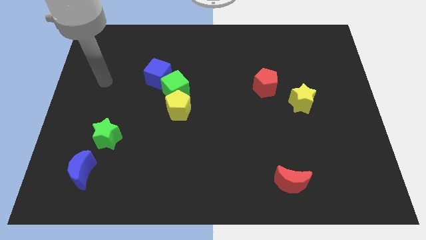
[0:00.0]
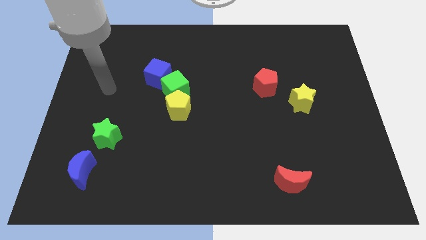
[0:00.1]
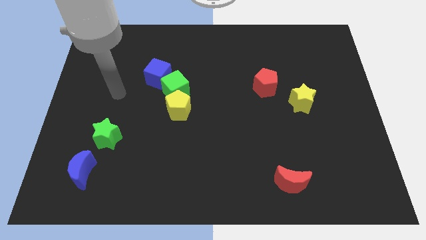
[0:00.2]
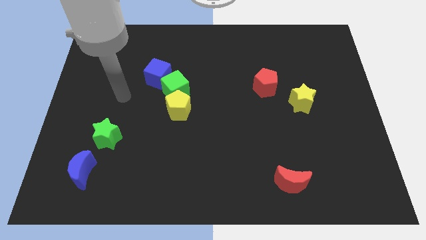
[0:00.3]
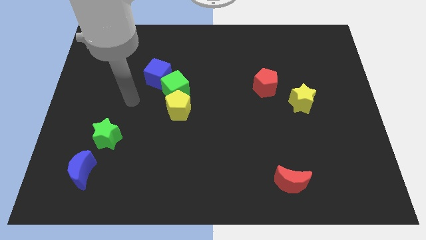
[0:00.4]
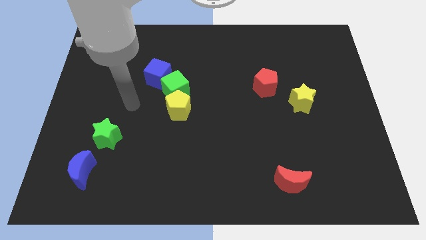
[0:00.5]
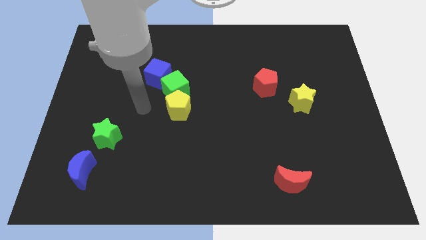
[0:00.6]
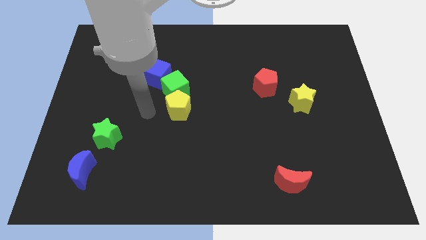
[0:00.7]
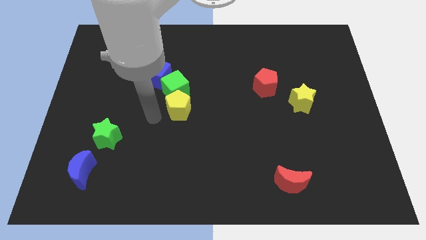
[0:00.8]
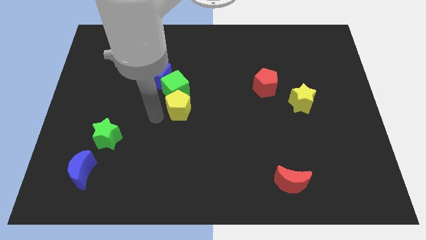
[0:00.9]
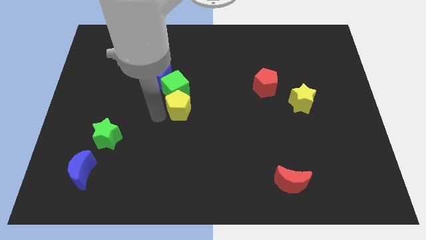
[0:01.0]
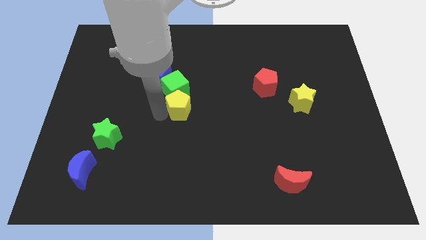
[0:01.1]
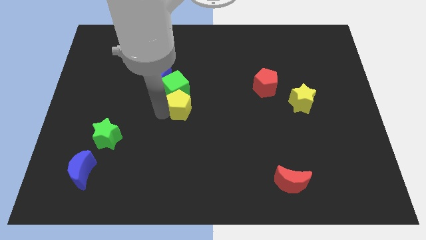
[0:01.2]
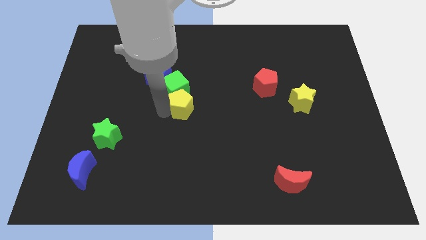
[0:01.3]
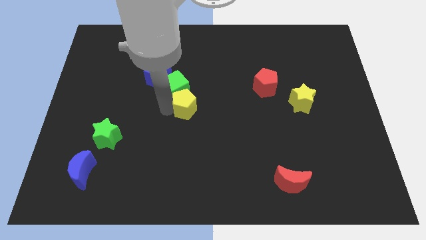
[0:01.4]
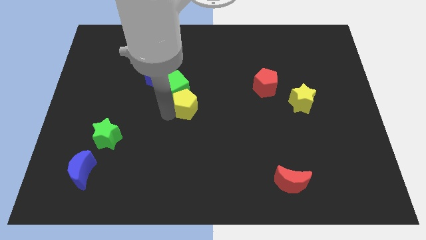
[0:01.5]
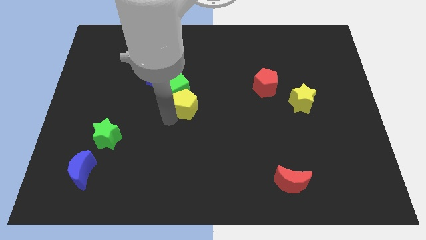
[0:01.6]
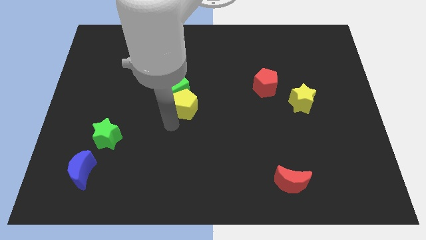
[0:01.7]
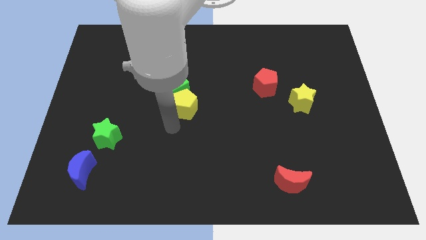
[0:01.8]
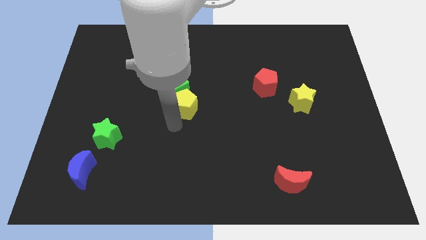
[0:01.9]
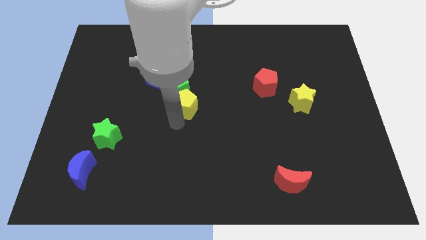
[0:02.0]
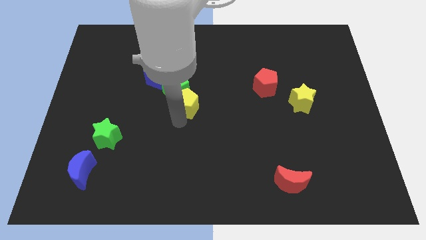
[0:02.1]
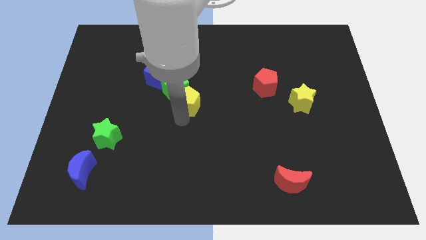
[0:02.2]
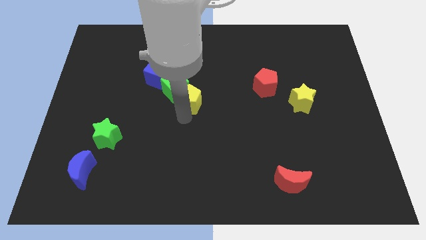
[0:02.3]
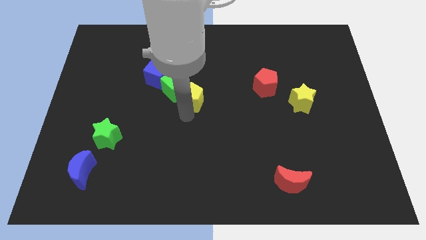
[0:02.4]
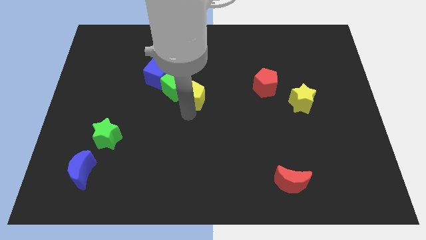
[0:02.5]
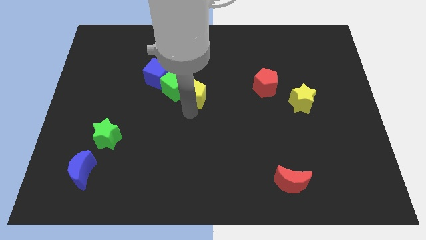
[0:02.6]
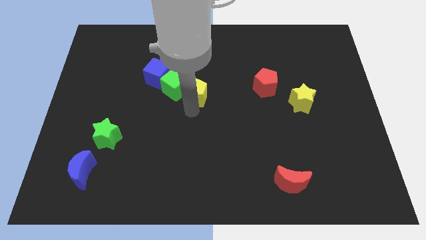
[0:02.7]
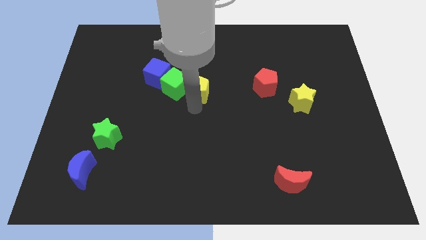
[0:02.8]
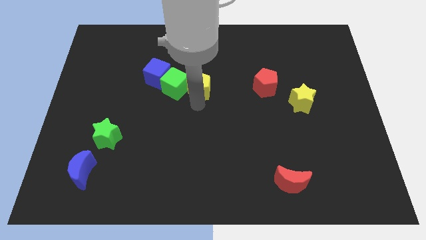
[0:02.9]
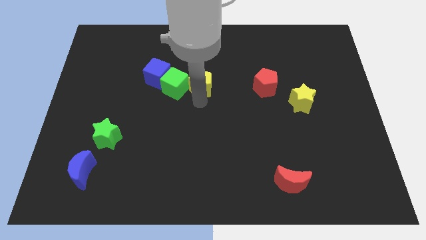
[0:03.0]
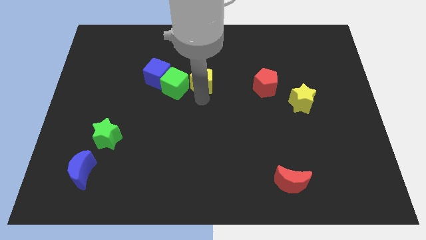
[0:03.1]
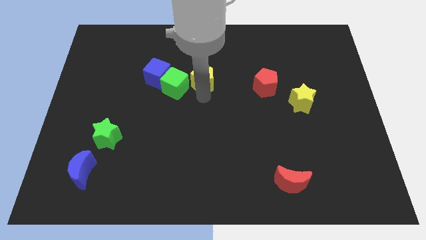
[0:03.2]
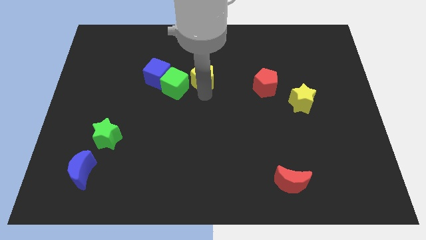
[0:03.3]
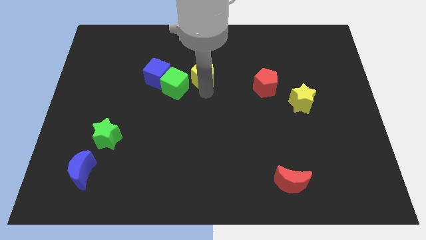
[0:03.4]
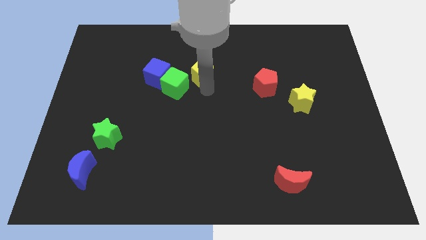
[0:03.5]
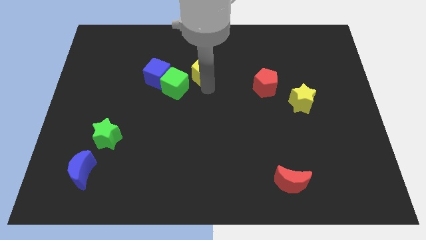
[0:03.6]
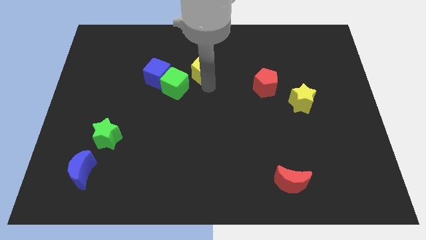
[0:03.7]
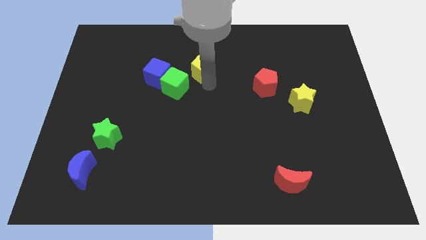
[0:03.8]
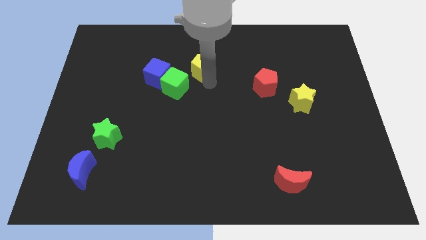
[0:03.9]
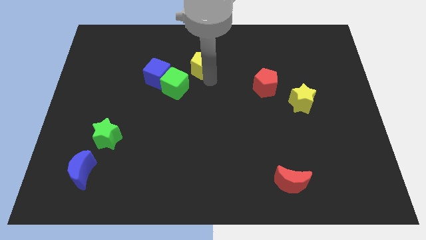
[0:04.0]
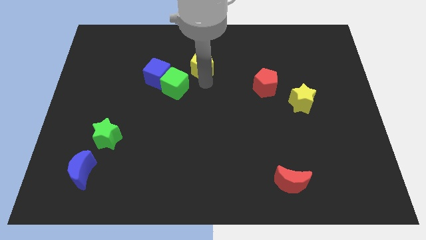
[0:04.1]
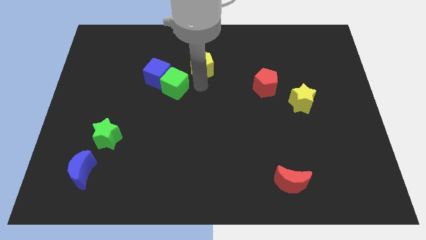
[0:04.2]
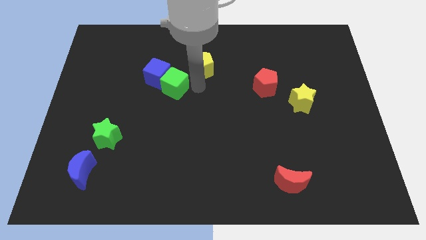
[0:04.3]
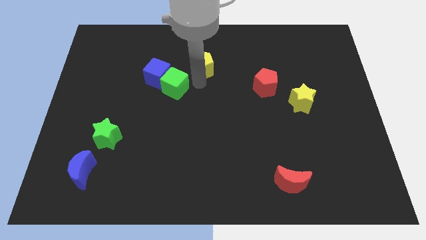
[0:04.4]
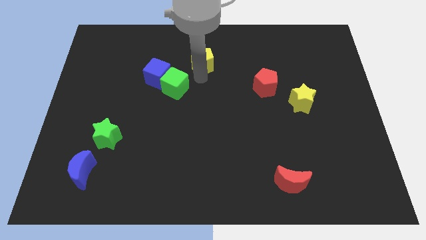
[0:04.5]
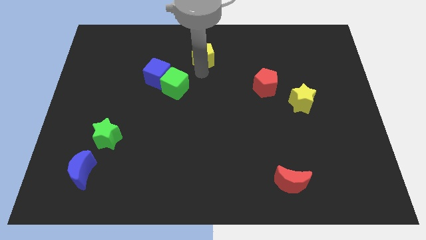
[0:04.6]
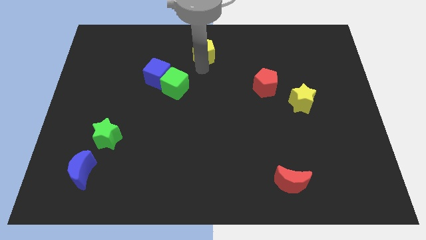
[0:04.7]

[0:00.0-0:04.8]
move the yellow pentagon to the top

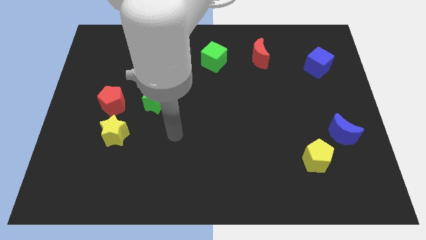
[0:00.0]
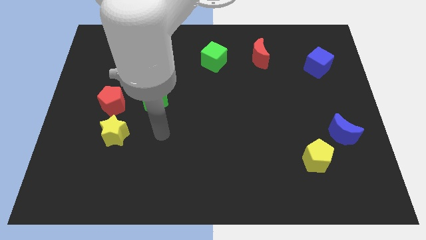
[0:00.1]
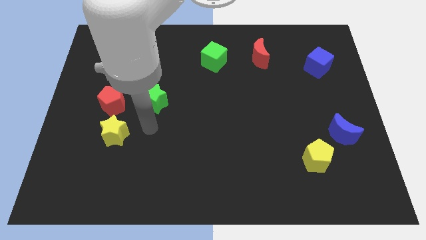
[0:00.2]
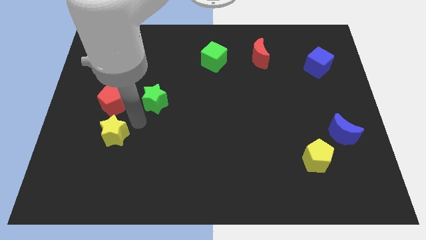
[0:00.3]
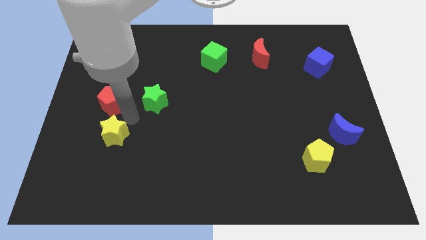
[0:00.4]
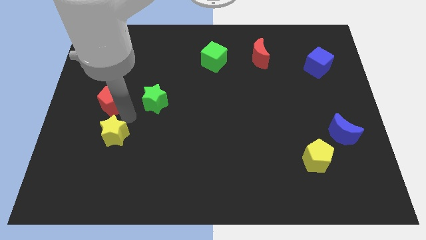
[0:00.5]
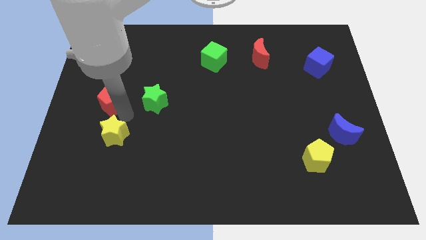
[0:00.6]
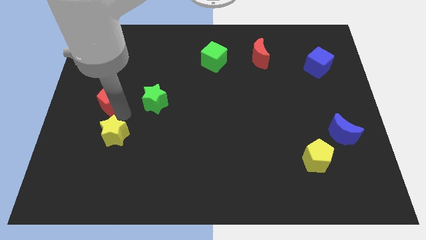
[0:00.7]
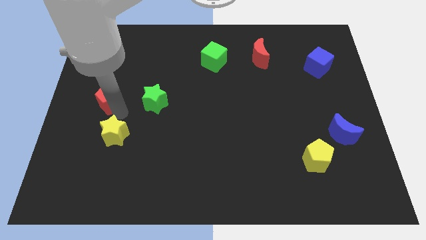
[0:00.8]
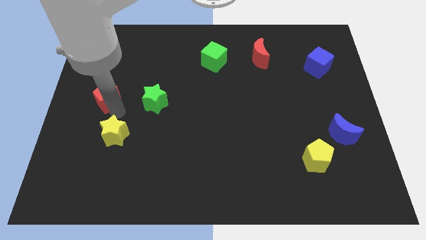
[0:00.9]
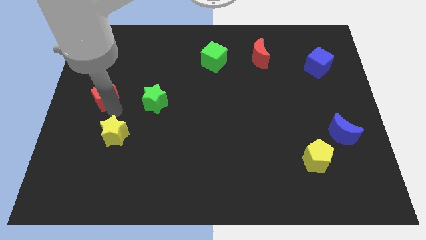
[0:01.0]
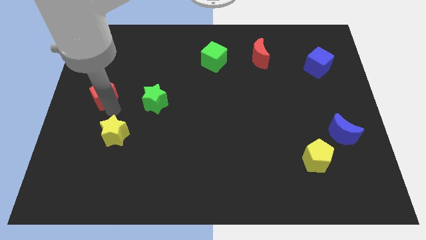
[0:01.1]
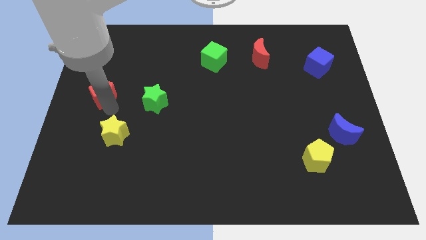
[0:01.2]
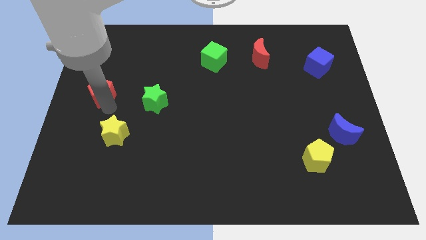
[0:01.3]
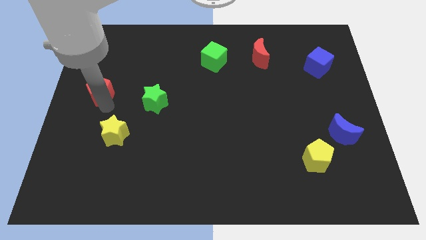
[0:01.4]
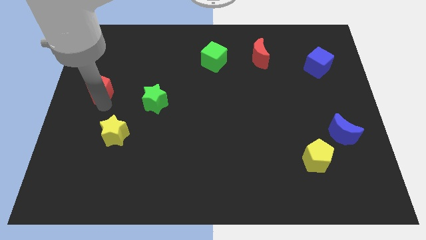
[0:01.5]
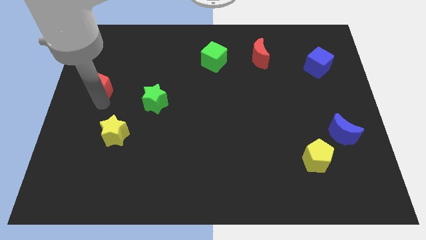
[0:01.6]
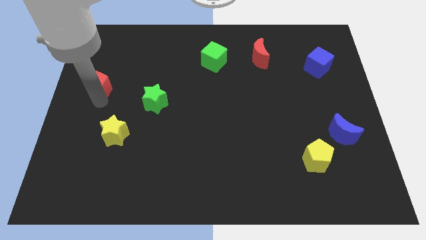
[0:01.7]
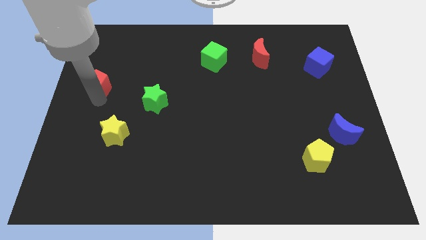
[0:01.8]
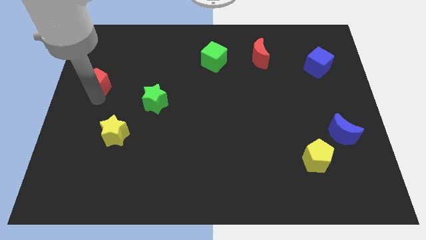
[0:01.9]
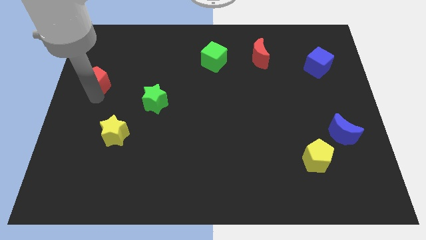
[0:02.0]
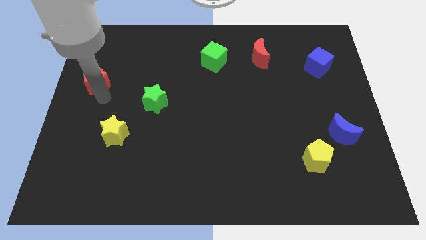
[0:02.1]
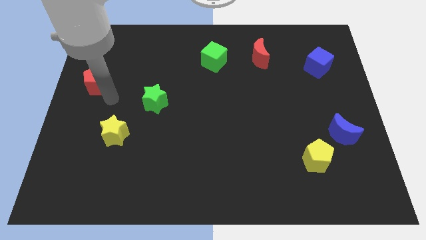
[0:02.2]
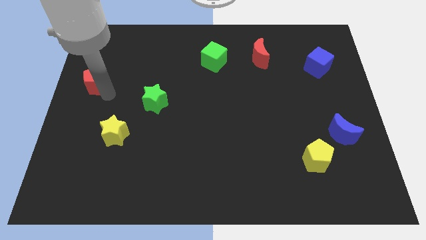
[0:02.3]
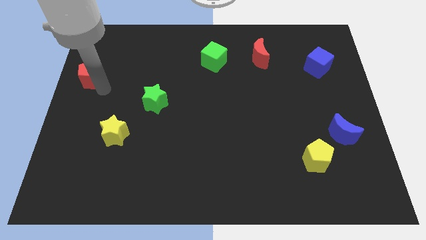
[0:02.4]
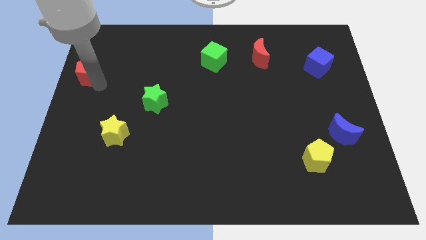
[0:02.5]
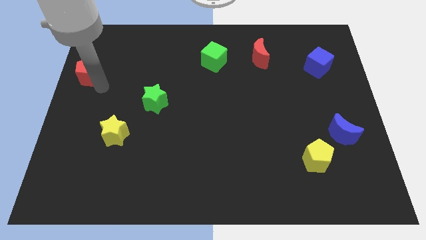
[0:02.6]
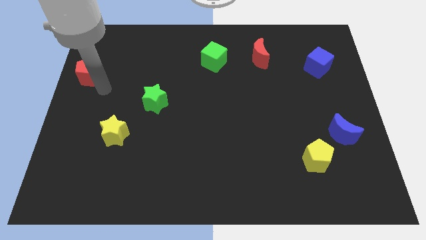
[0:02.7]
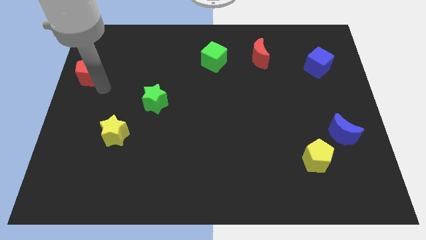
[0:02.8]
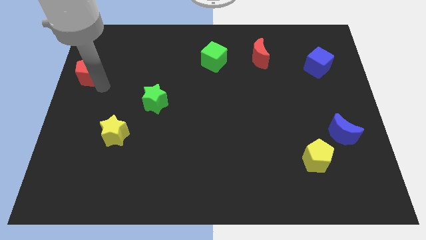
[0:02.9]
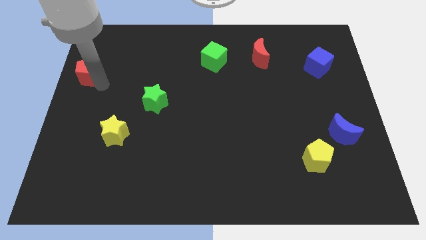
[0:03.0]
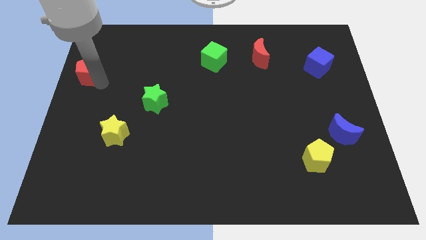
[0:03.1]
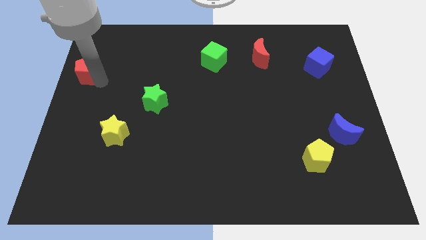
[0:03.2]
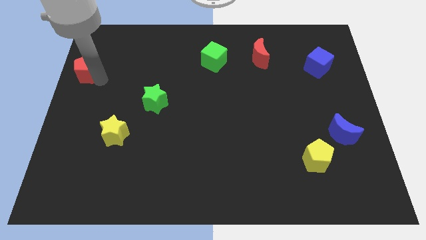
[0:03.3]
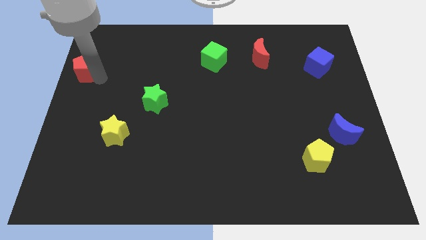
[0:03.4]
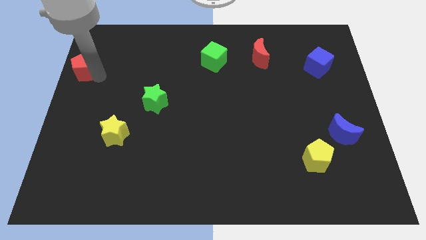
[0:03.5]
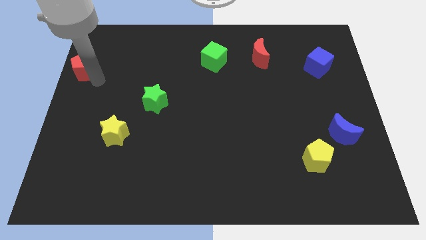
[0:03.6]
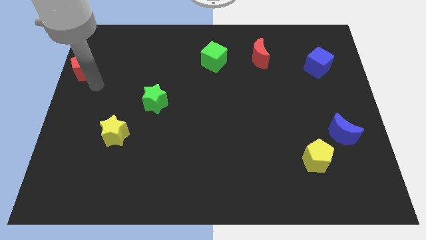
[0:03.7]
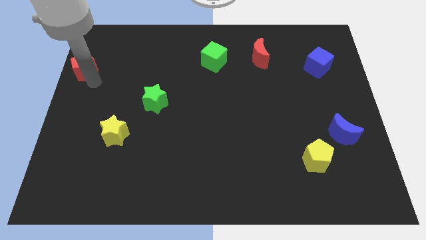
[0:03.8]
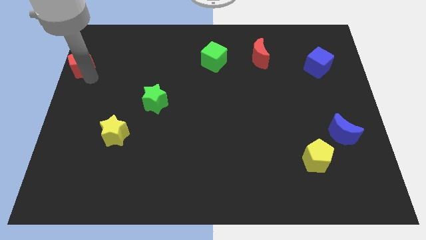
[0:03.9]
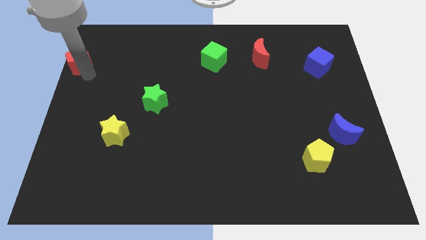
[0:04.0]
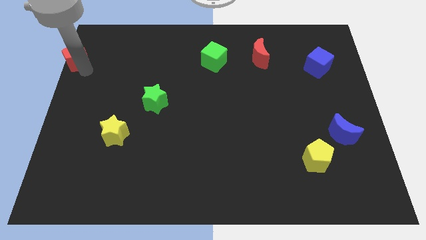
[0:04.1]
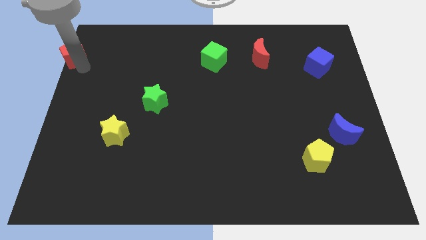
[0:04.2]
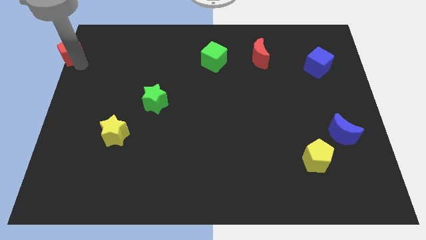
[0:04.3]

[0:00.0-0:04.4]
move the red pentagon to the upper left corner
